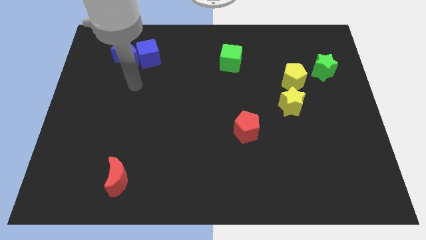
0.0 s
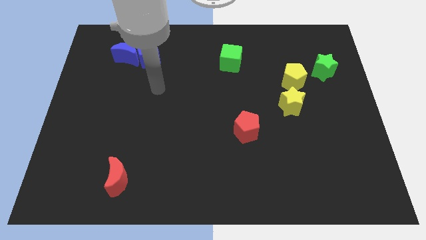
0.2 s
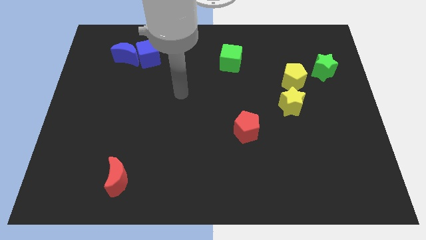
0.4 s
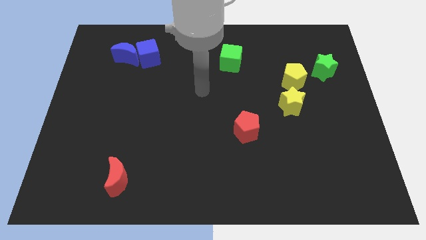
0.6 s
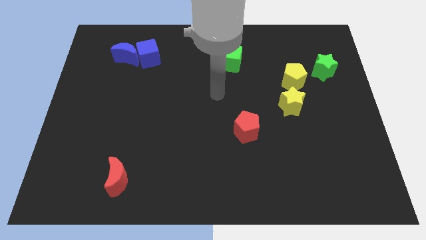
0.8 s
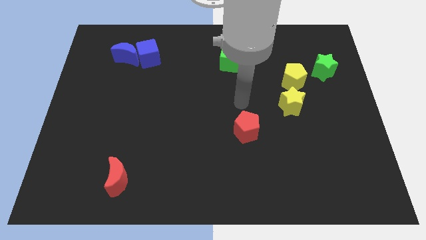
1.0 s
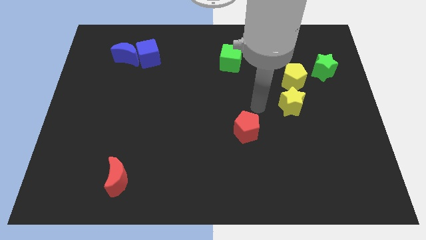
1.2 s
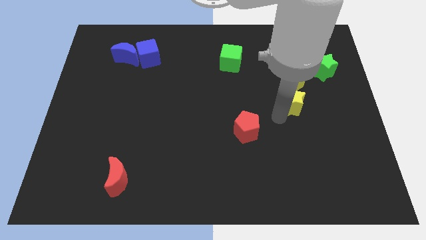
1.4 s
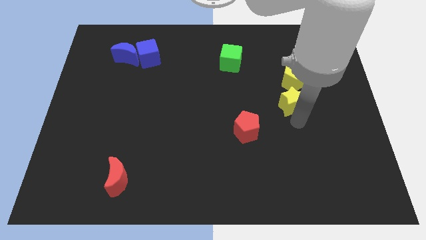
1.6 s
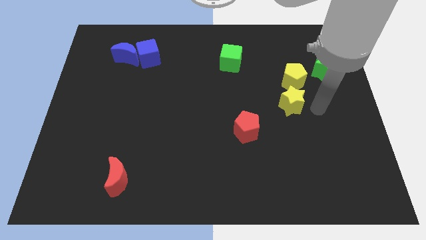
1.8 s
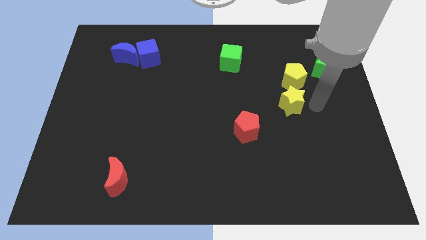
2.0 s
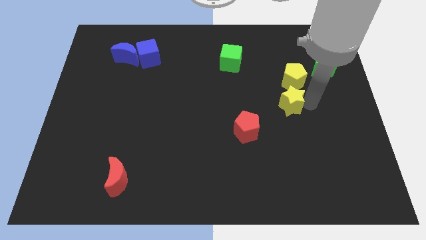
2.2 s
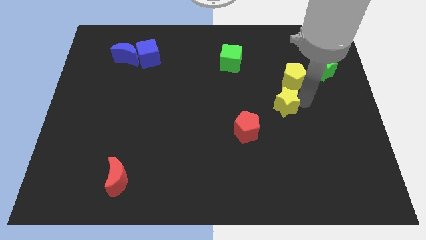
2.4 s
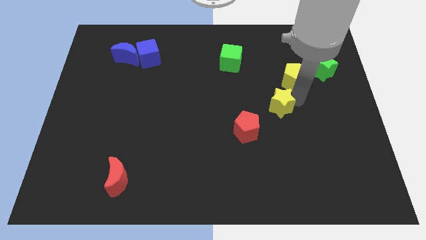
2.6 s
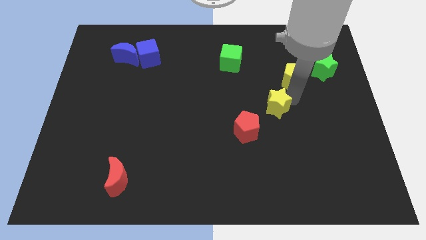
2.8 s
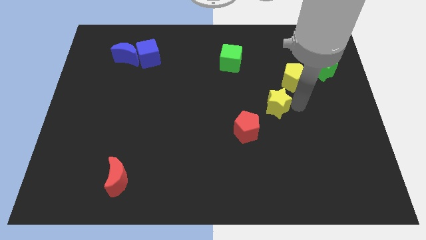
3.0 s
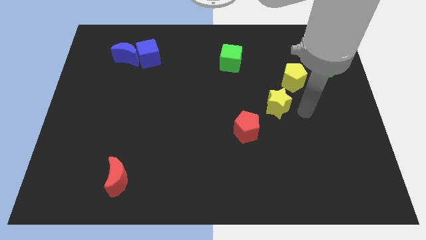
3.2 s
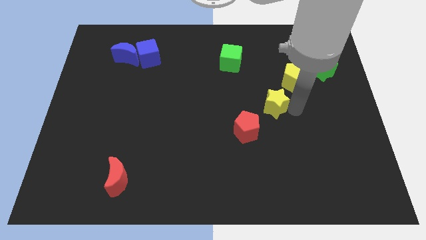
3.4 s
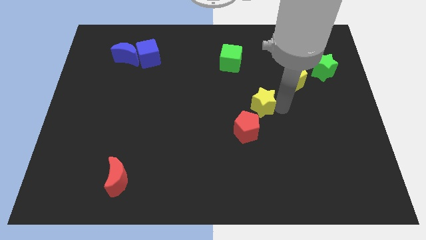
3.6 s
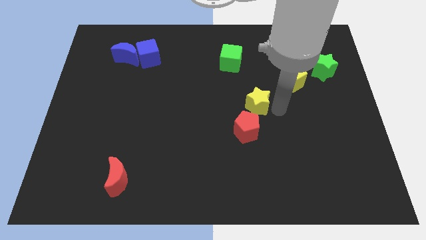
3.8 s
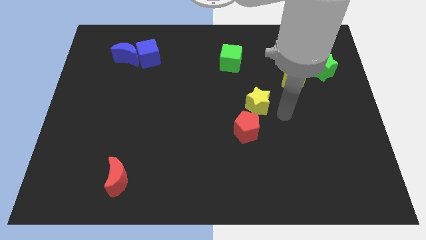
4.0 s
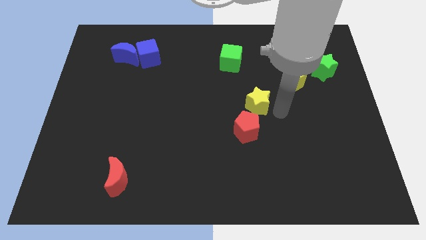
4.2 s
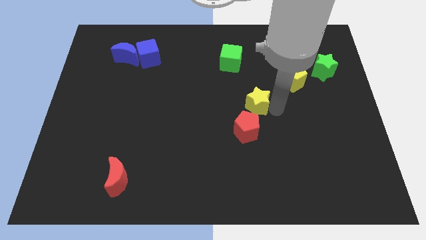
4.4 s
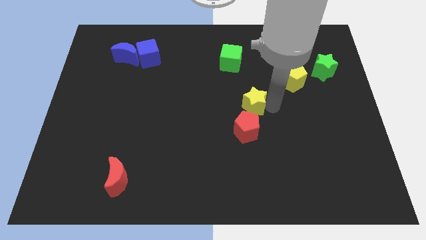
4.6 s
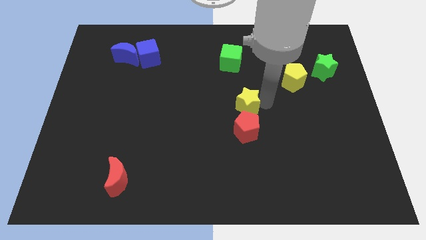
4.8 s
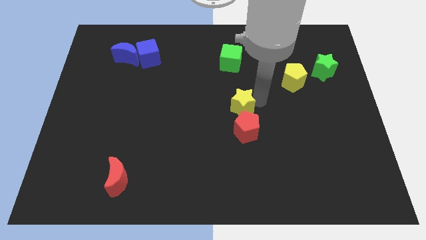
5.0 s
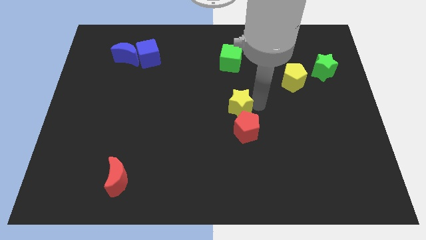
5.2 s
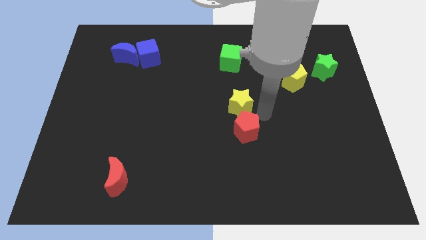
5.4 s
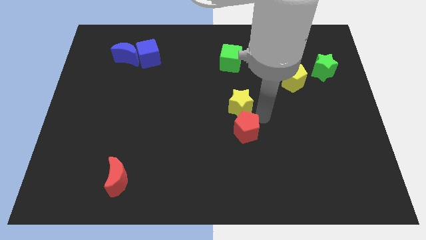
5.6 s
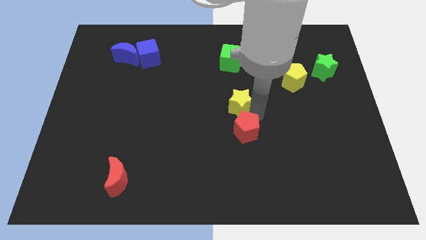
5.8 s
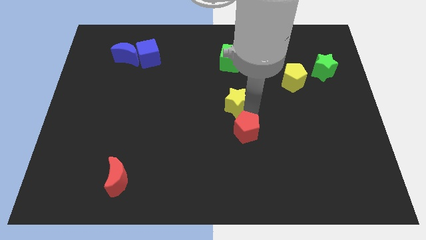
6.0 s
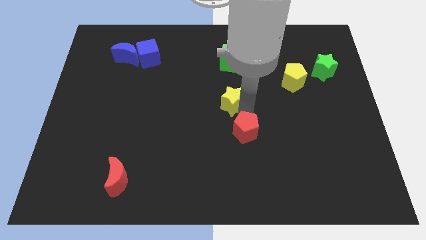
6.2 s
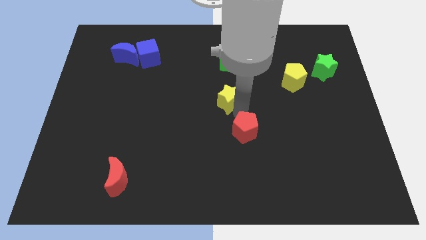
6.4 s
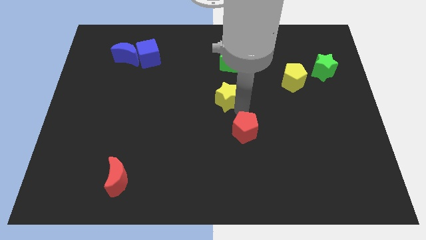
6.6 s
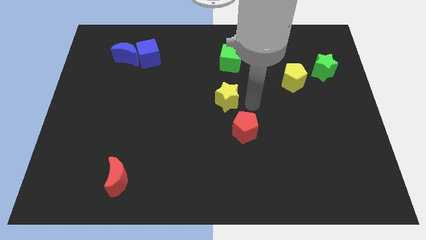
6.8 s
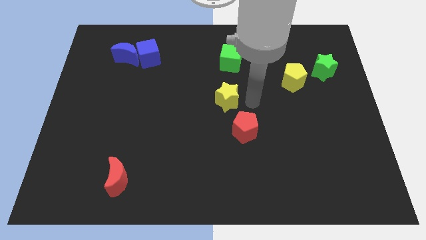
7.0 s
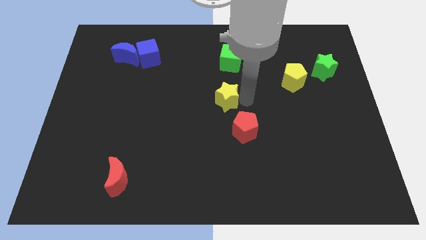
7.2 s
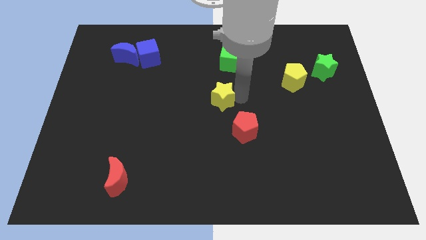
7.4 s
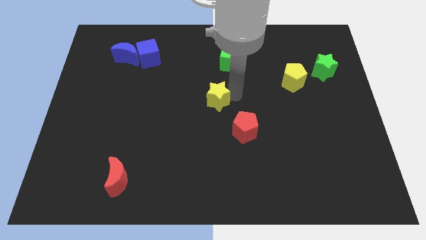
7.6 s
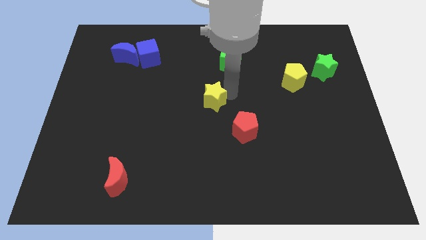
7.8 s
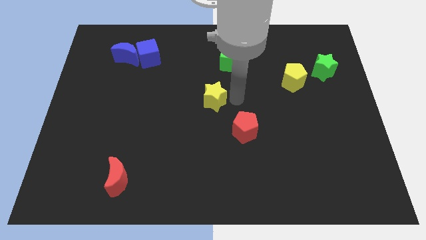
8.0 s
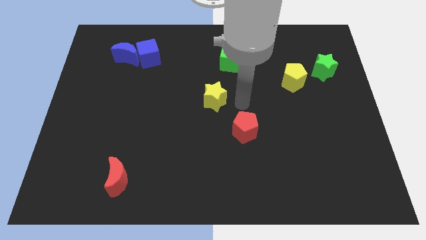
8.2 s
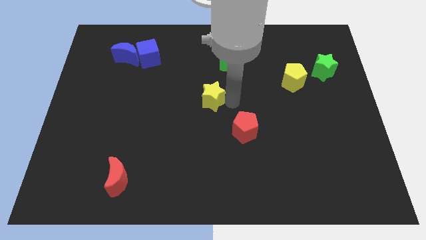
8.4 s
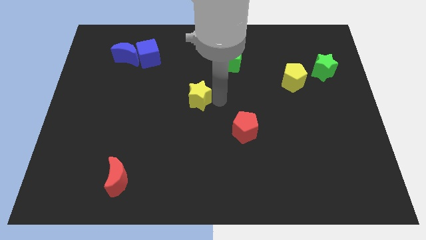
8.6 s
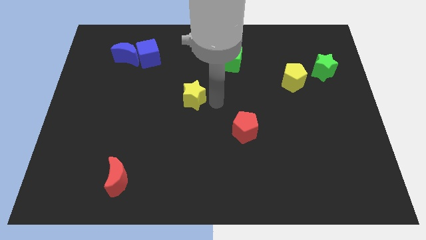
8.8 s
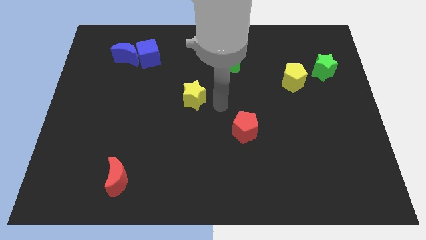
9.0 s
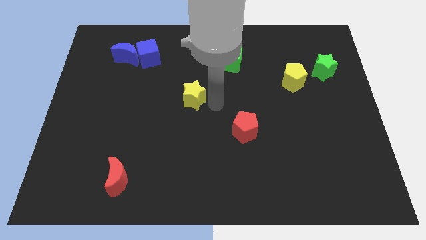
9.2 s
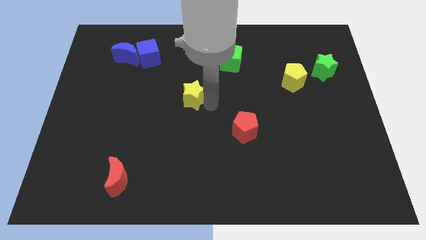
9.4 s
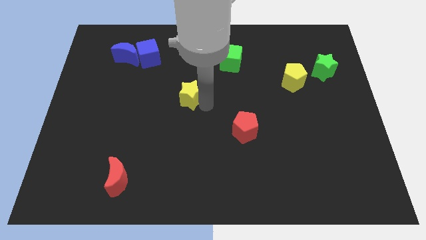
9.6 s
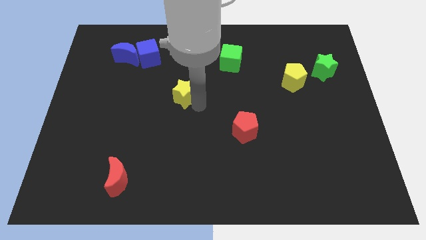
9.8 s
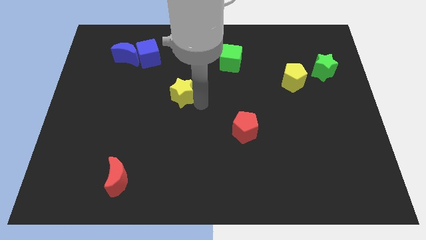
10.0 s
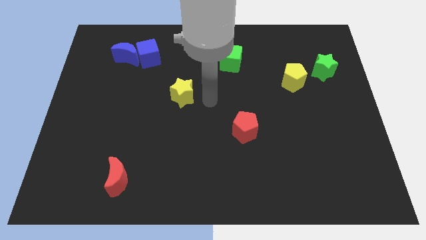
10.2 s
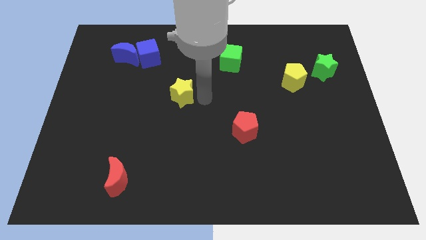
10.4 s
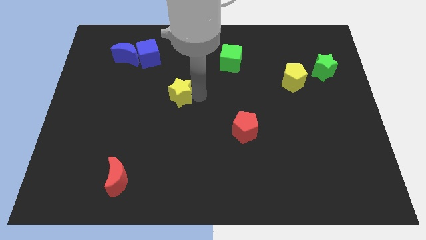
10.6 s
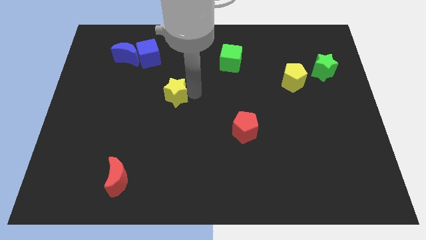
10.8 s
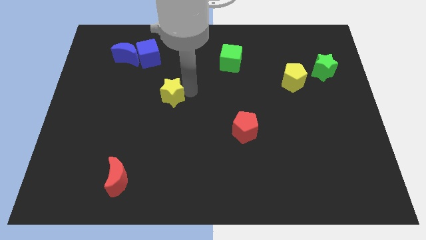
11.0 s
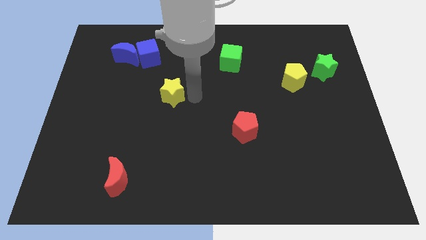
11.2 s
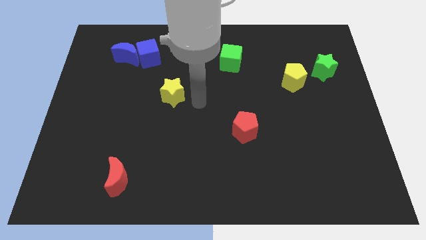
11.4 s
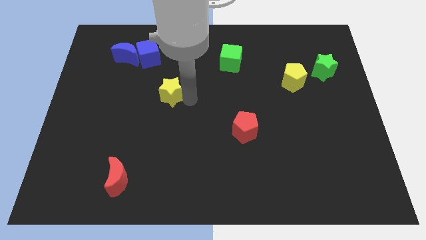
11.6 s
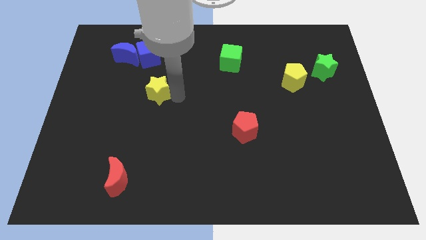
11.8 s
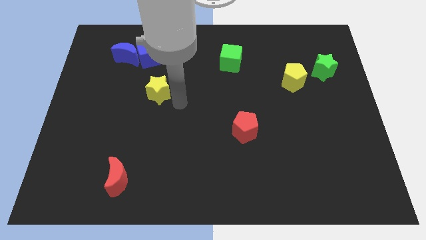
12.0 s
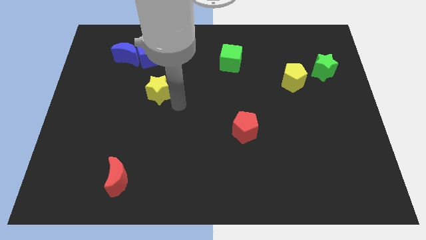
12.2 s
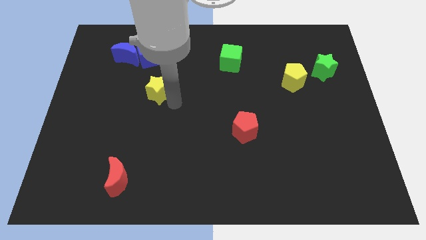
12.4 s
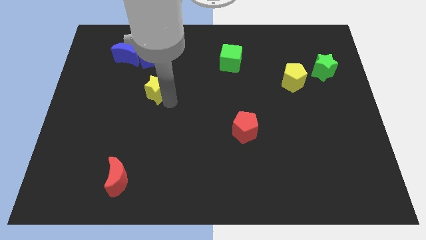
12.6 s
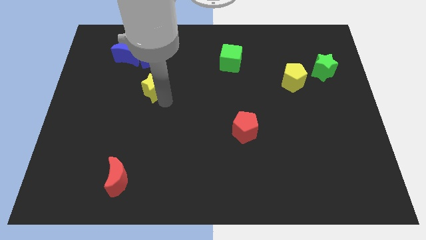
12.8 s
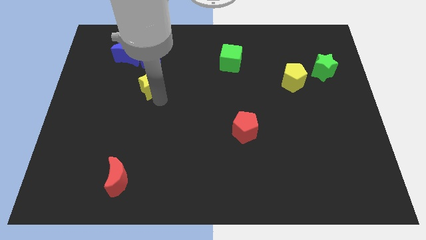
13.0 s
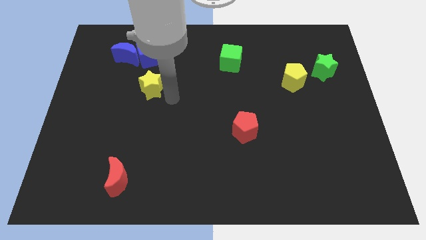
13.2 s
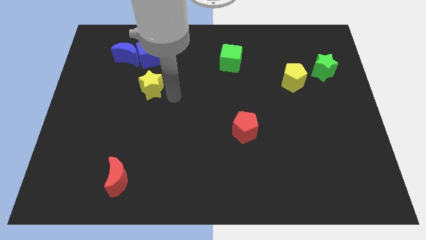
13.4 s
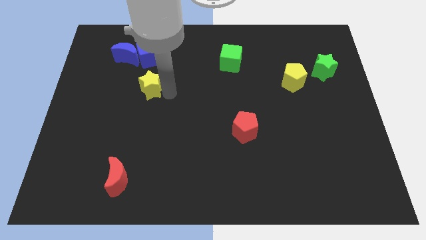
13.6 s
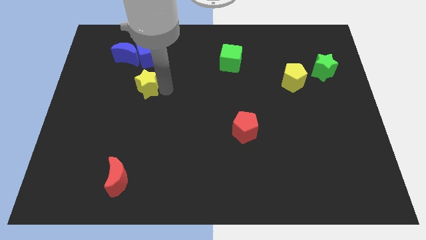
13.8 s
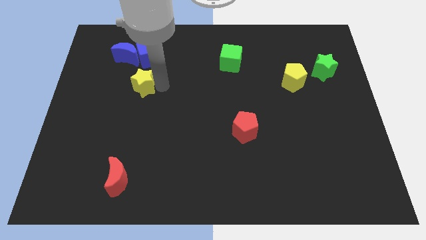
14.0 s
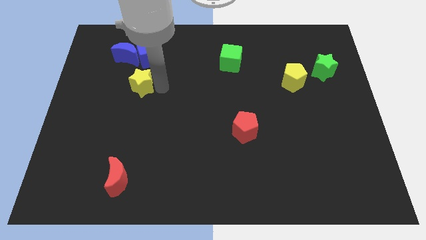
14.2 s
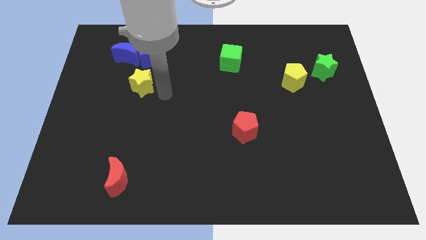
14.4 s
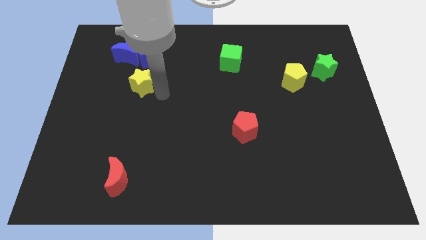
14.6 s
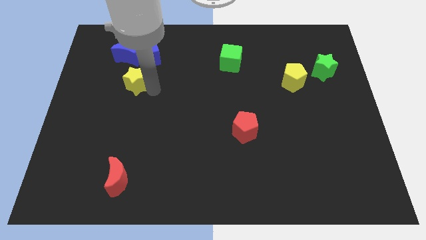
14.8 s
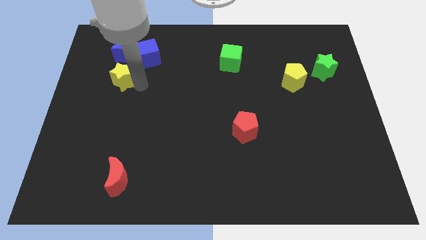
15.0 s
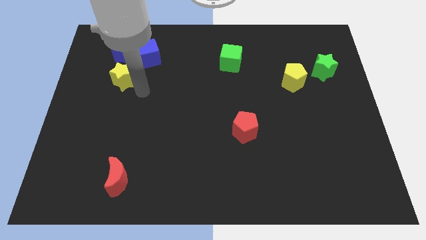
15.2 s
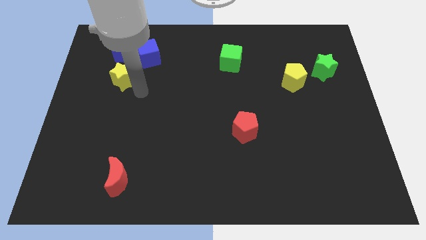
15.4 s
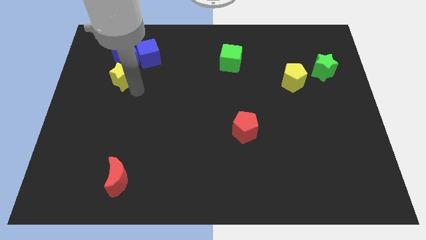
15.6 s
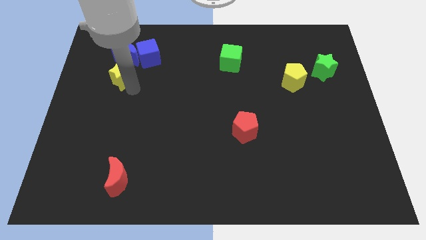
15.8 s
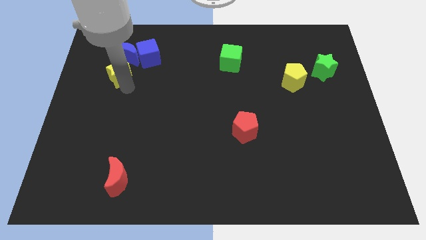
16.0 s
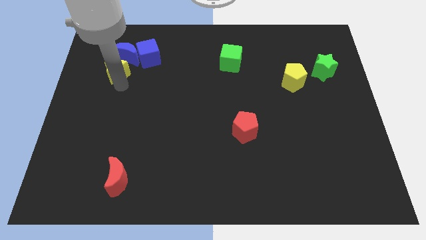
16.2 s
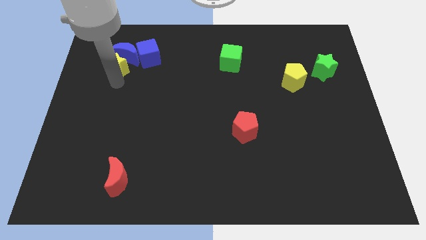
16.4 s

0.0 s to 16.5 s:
push the yellow star left of the blue cube
